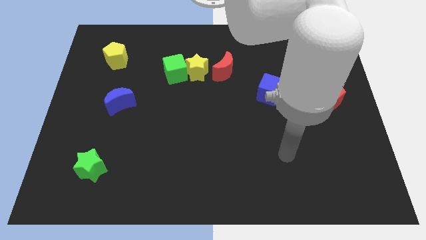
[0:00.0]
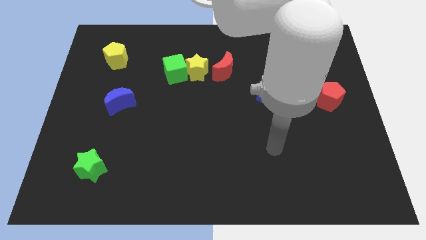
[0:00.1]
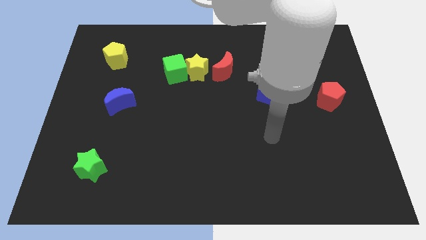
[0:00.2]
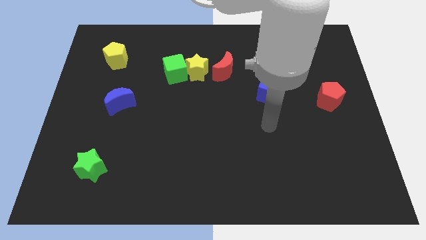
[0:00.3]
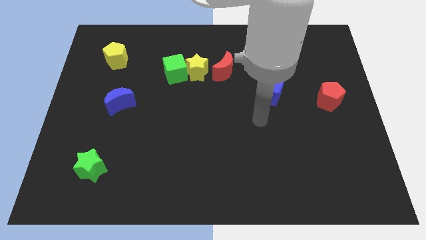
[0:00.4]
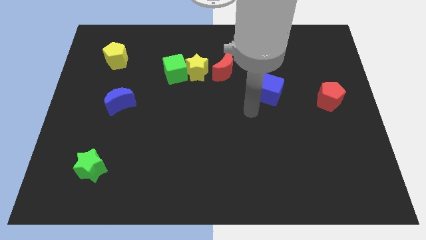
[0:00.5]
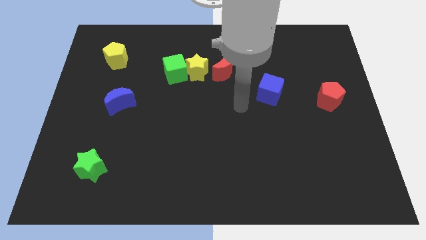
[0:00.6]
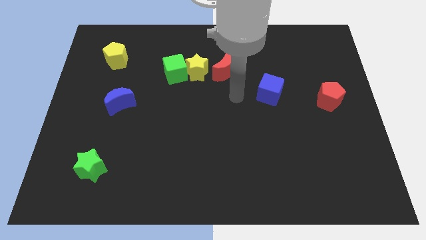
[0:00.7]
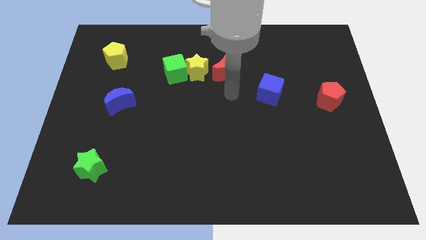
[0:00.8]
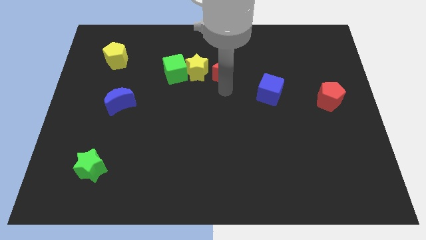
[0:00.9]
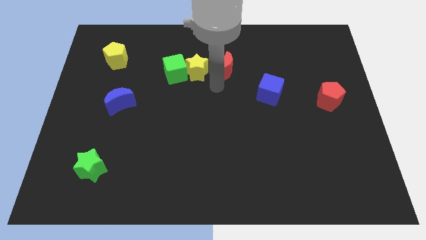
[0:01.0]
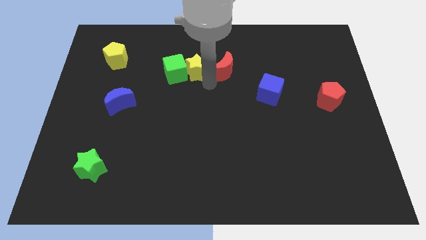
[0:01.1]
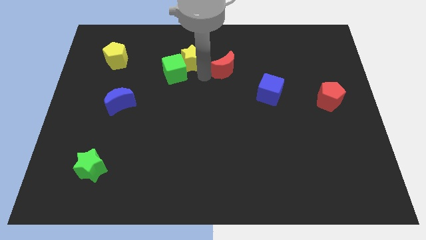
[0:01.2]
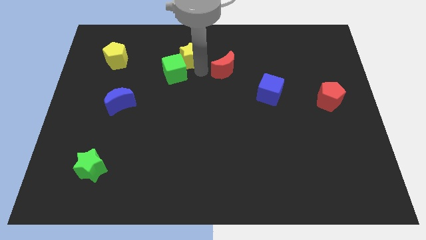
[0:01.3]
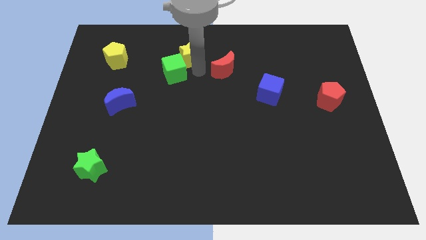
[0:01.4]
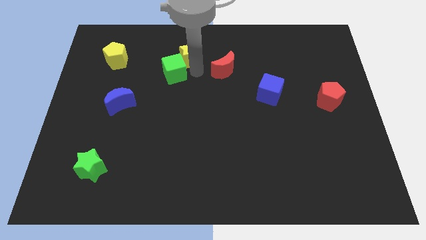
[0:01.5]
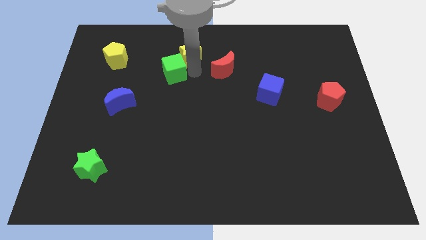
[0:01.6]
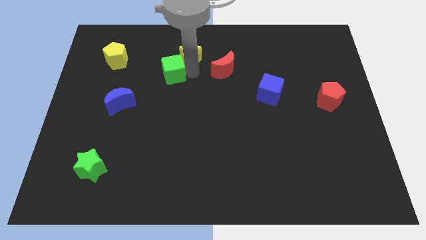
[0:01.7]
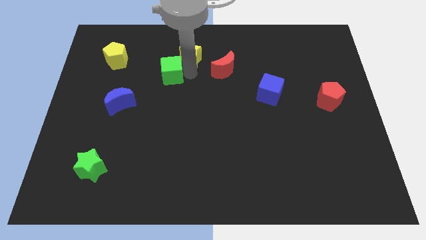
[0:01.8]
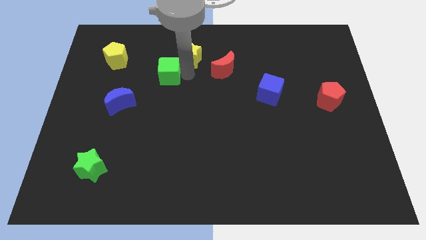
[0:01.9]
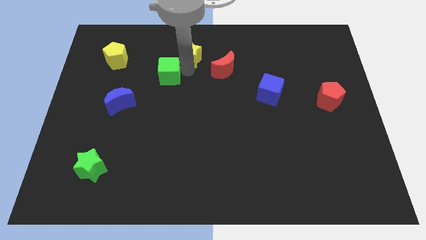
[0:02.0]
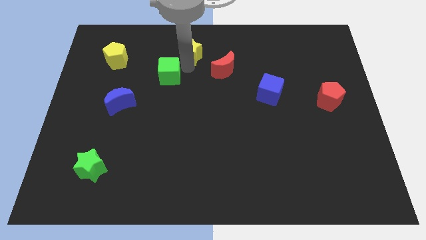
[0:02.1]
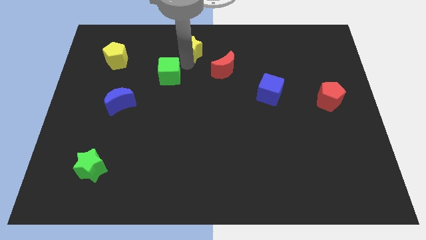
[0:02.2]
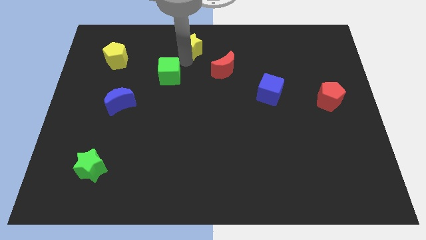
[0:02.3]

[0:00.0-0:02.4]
move the green cube away from the yellow star

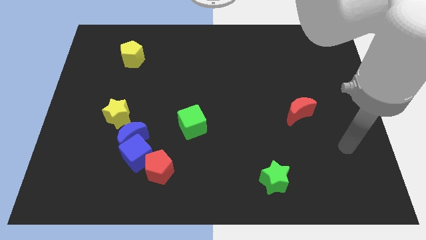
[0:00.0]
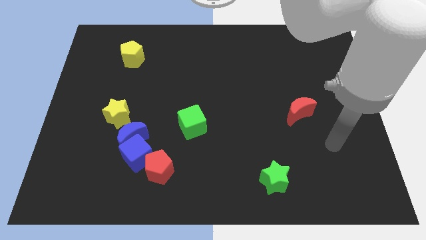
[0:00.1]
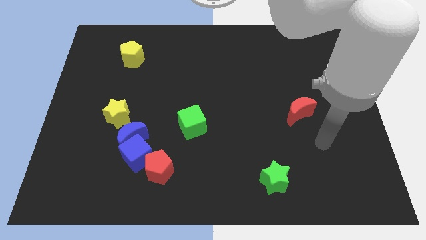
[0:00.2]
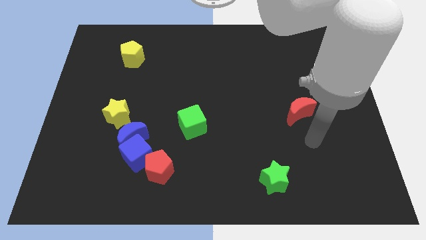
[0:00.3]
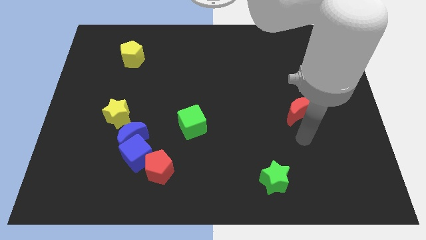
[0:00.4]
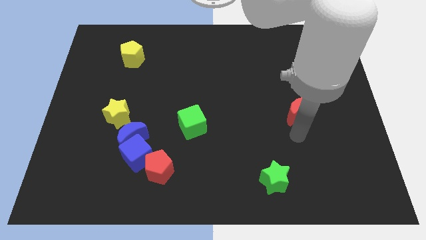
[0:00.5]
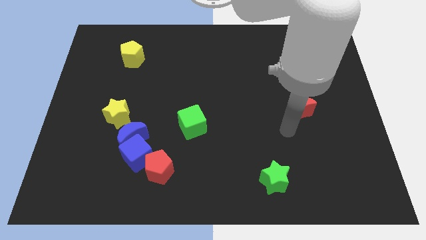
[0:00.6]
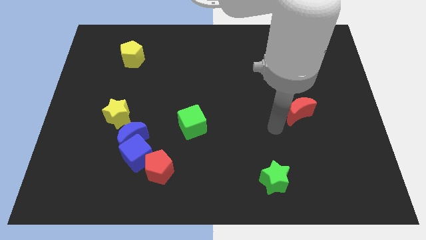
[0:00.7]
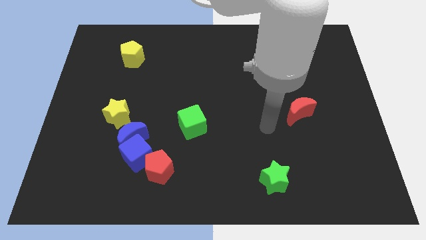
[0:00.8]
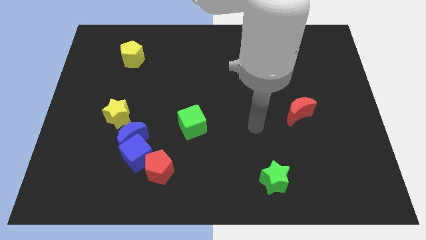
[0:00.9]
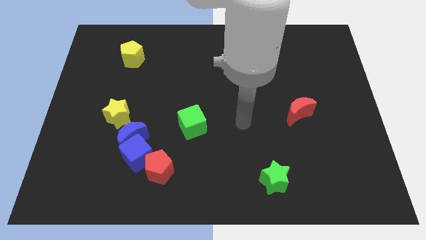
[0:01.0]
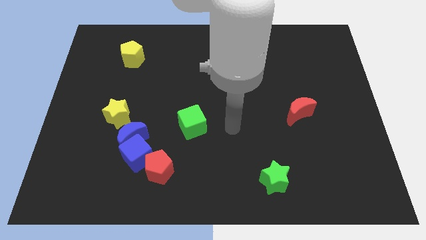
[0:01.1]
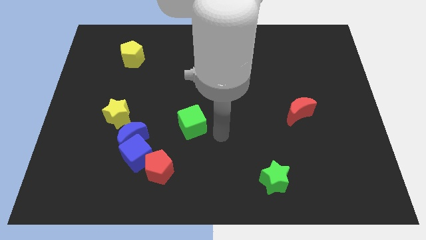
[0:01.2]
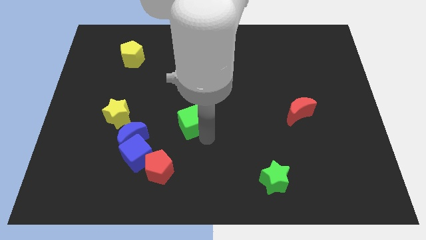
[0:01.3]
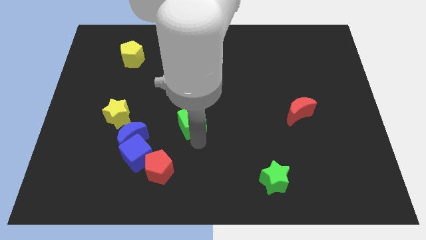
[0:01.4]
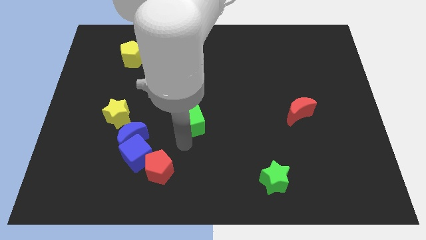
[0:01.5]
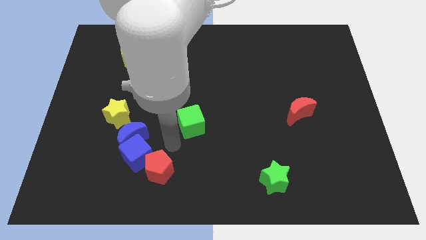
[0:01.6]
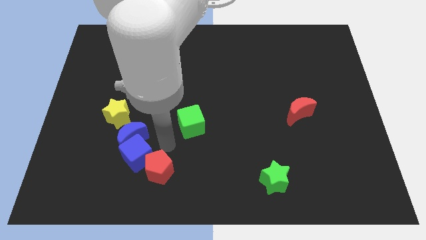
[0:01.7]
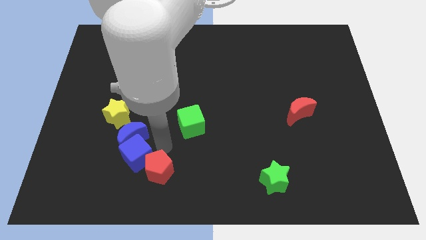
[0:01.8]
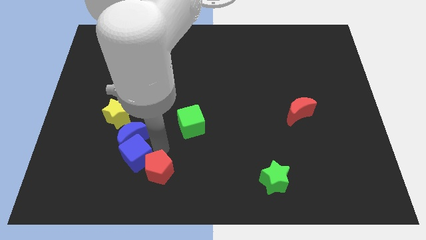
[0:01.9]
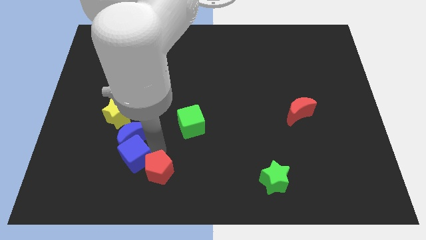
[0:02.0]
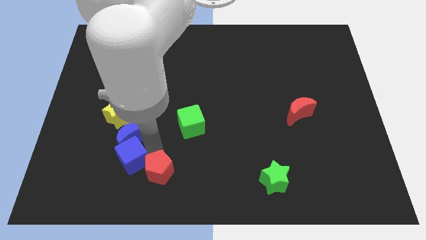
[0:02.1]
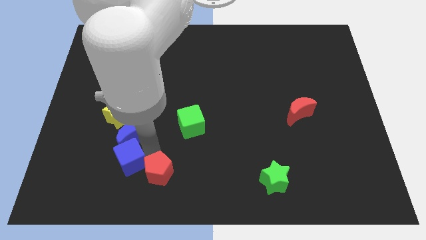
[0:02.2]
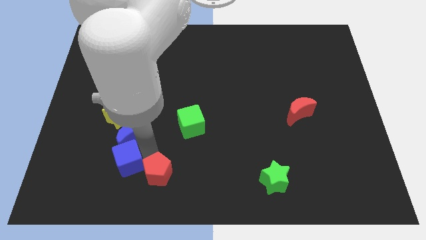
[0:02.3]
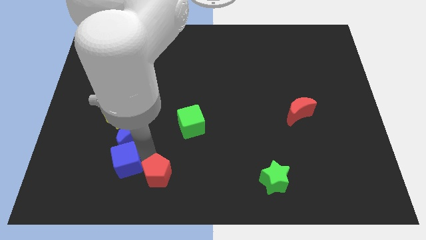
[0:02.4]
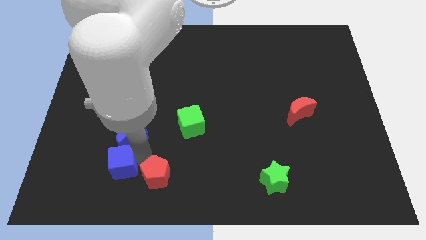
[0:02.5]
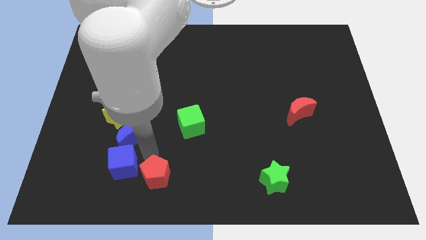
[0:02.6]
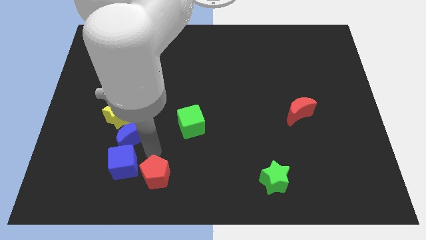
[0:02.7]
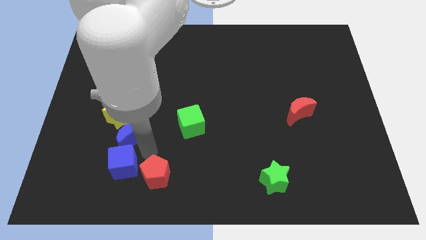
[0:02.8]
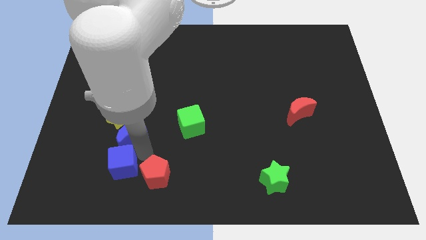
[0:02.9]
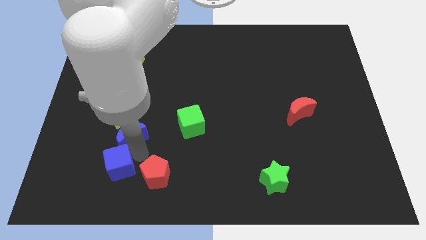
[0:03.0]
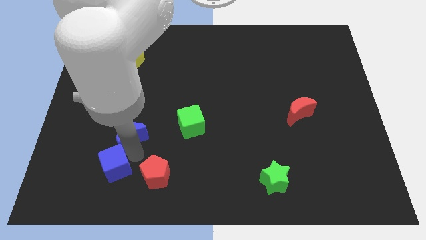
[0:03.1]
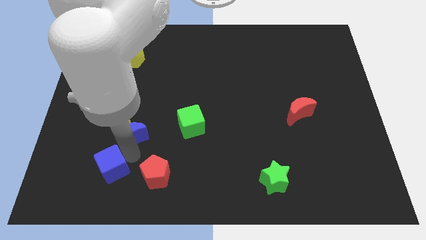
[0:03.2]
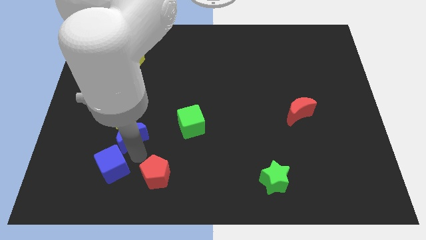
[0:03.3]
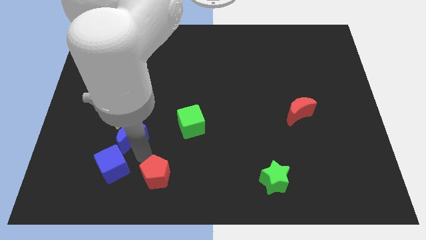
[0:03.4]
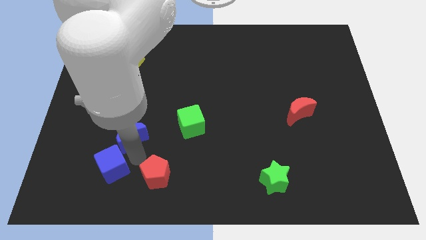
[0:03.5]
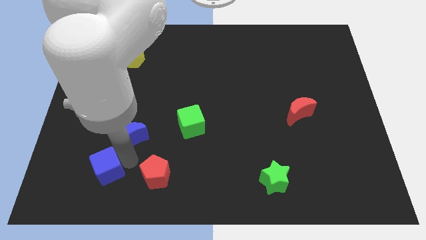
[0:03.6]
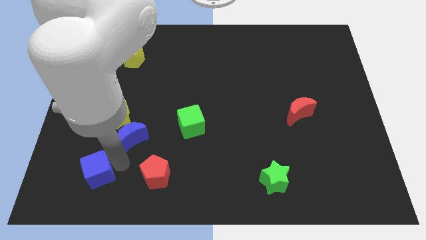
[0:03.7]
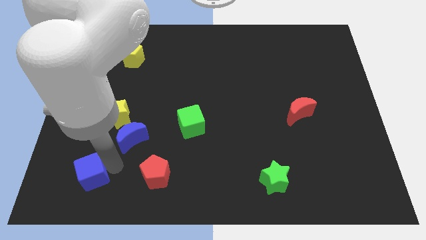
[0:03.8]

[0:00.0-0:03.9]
pull the blue cube apart from the blue moon and red pentagon

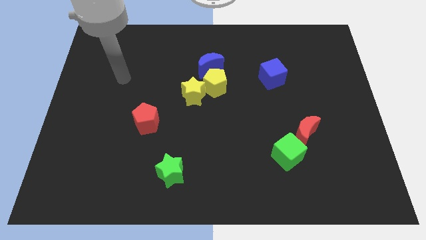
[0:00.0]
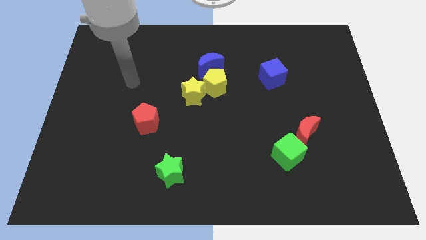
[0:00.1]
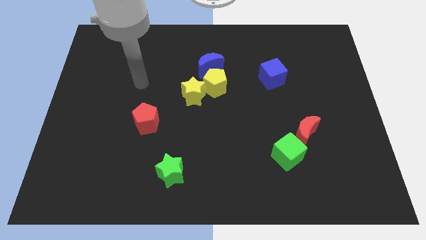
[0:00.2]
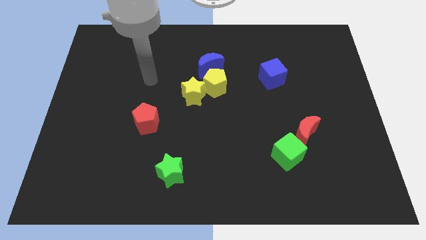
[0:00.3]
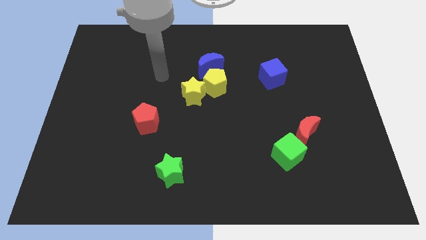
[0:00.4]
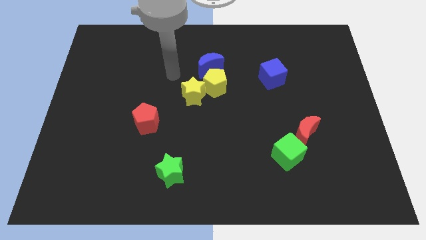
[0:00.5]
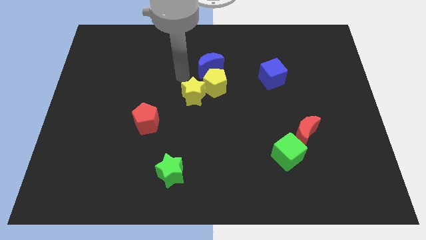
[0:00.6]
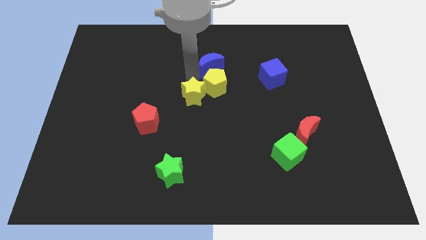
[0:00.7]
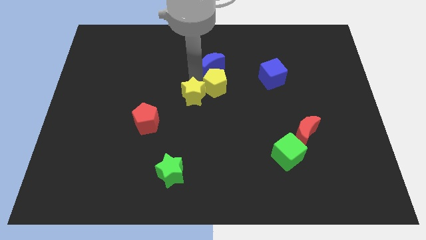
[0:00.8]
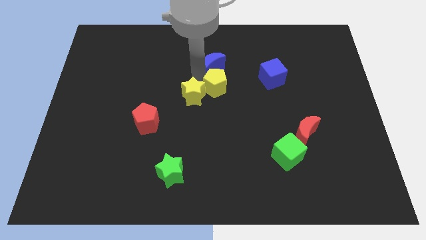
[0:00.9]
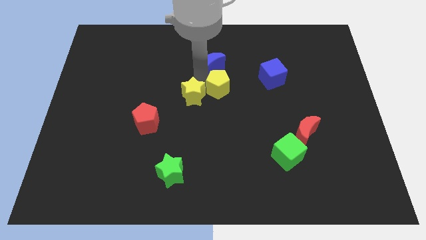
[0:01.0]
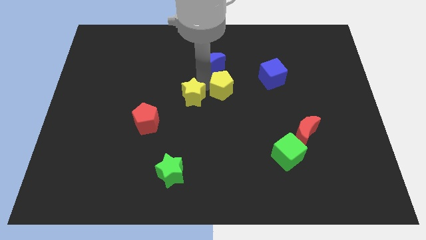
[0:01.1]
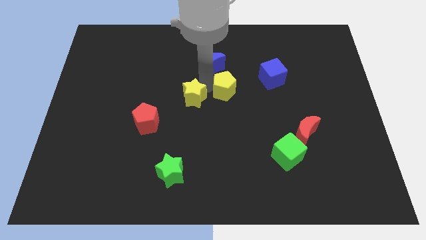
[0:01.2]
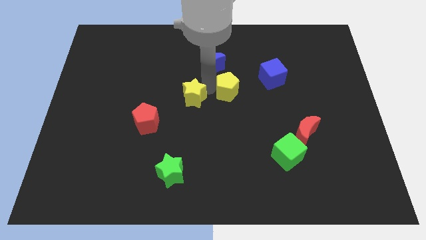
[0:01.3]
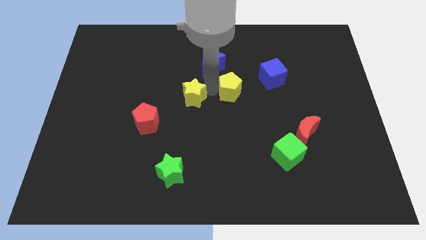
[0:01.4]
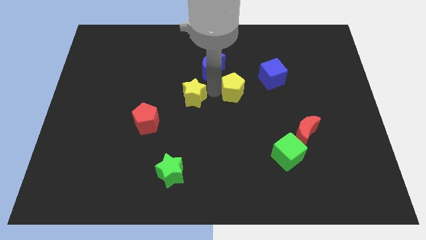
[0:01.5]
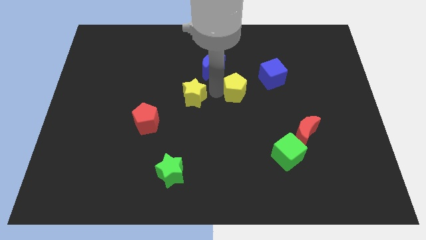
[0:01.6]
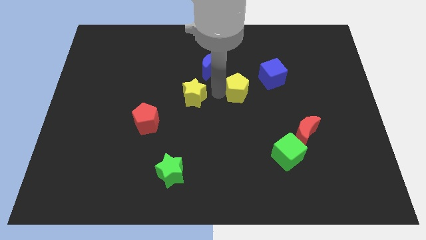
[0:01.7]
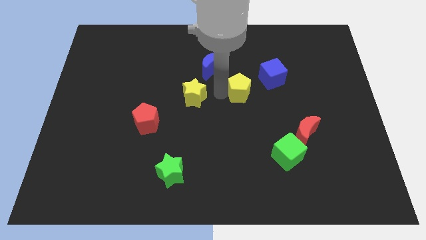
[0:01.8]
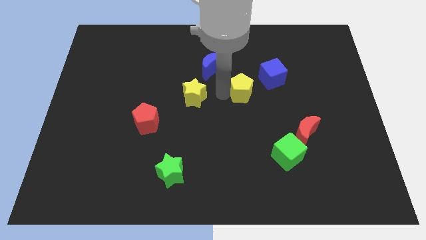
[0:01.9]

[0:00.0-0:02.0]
move the yellow pentagon away from the yellow star and blue moon

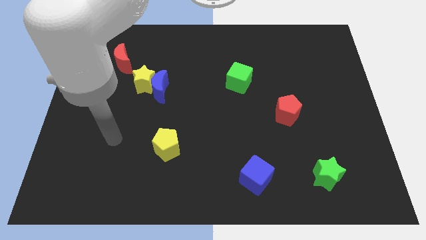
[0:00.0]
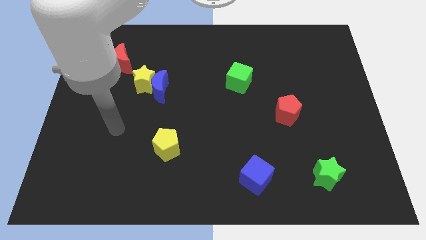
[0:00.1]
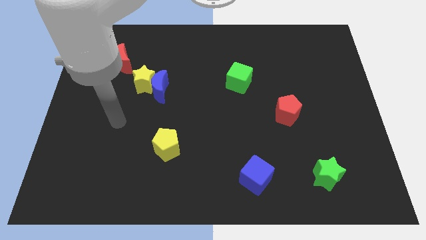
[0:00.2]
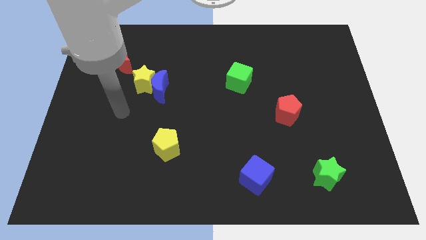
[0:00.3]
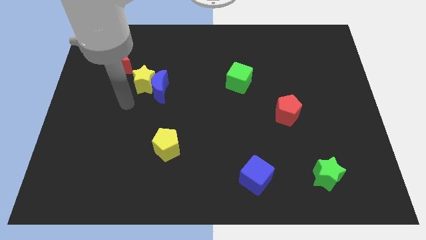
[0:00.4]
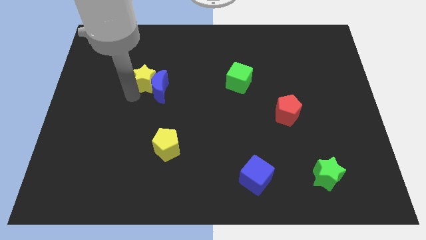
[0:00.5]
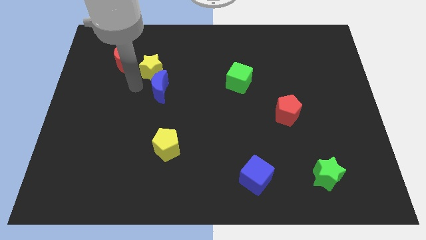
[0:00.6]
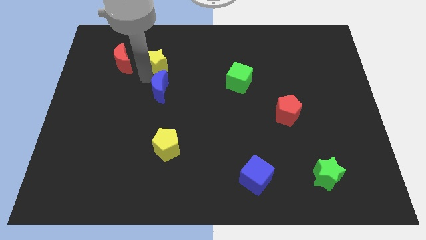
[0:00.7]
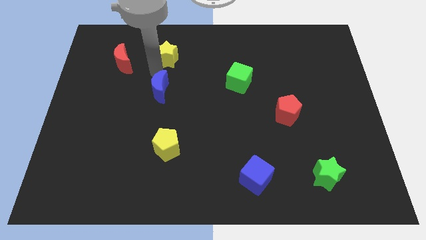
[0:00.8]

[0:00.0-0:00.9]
pull the blue moon apart from the yellow star

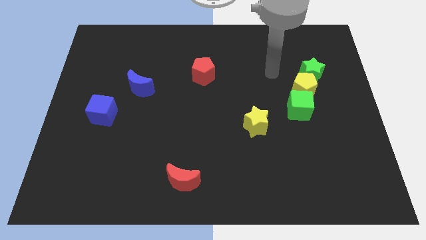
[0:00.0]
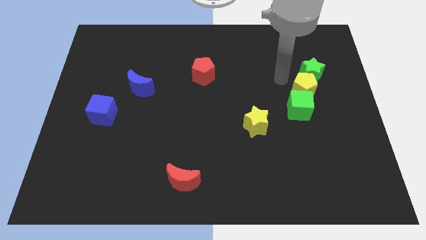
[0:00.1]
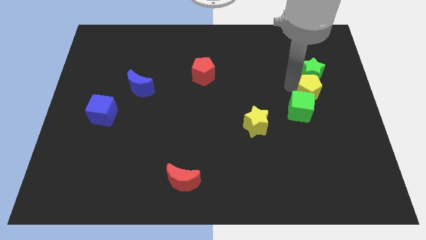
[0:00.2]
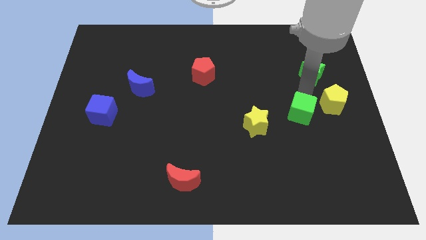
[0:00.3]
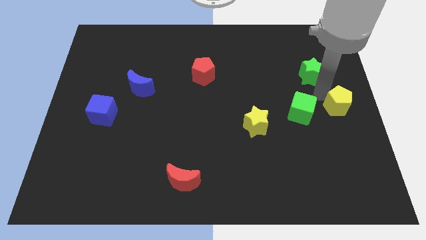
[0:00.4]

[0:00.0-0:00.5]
pull the green star apart from the yellow pentagon
